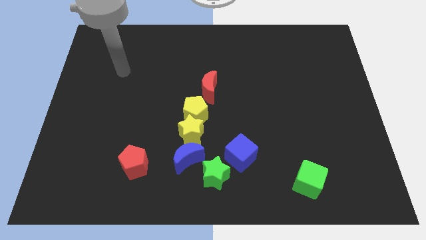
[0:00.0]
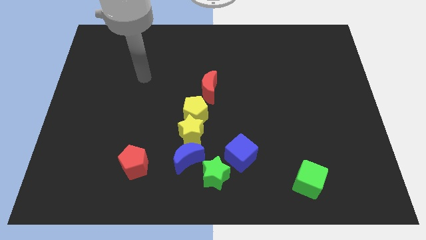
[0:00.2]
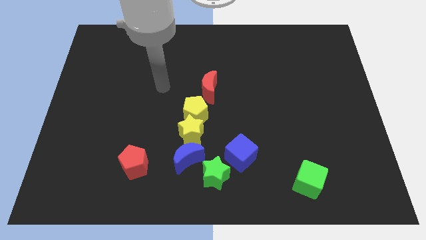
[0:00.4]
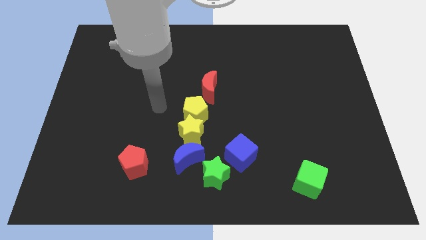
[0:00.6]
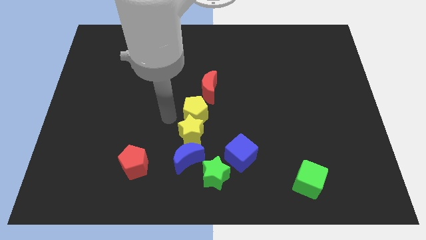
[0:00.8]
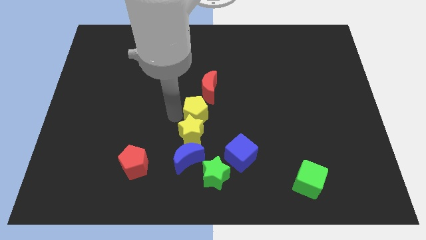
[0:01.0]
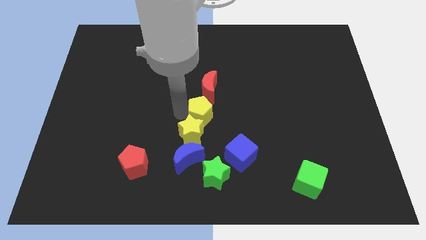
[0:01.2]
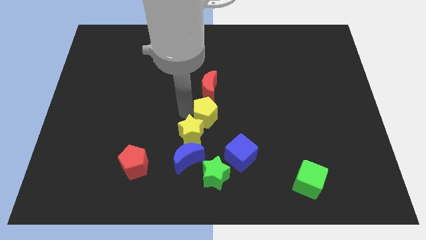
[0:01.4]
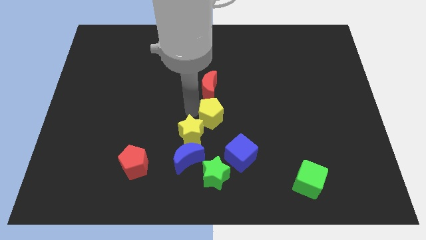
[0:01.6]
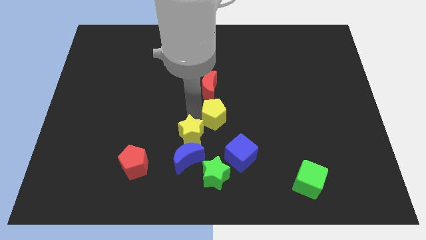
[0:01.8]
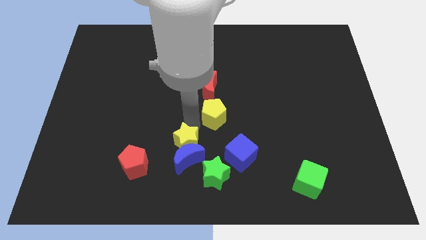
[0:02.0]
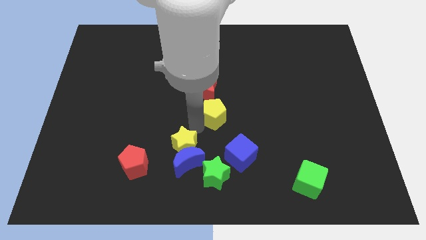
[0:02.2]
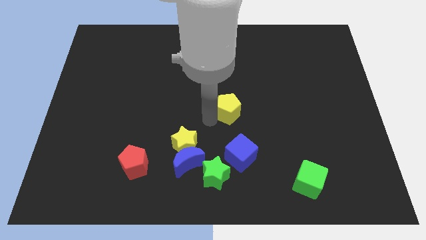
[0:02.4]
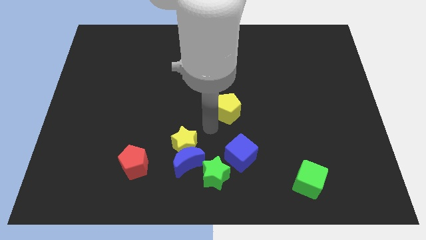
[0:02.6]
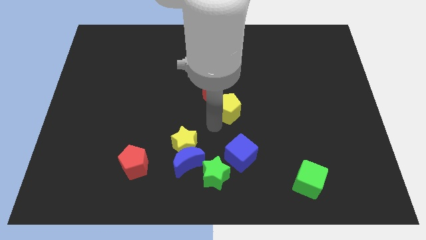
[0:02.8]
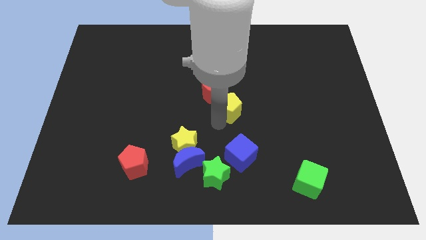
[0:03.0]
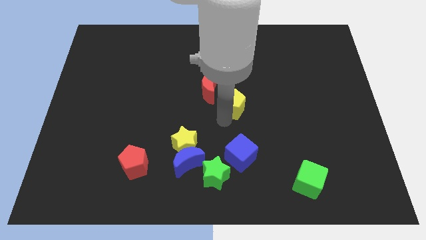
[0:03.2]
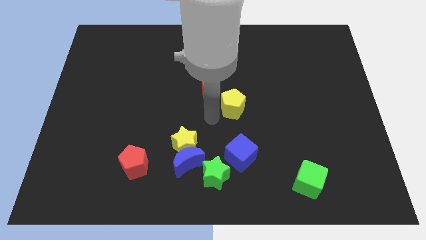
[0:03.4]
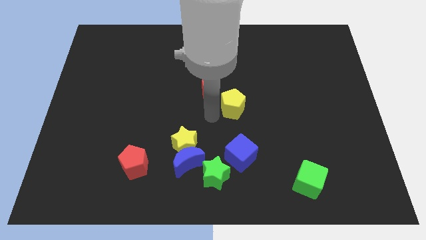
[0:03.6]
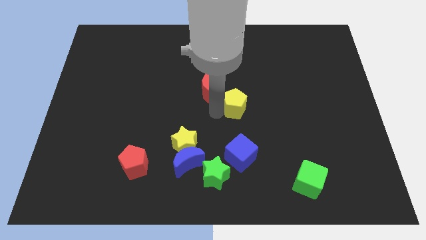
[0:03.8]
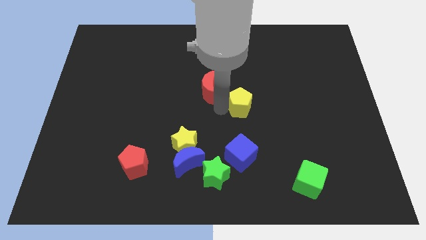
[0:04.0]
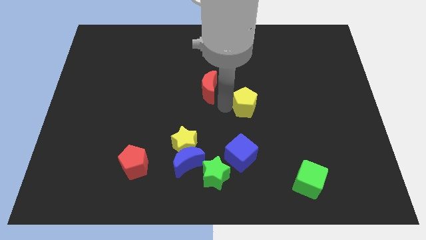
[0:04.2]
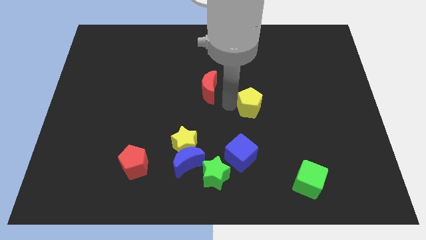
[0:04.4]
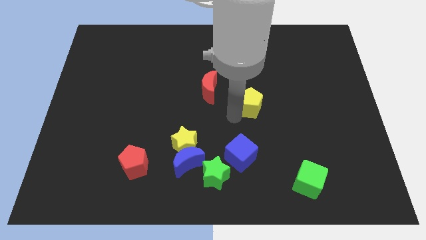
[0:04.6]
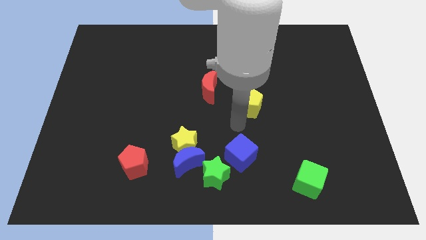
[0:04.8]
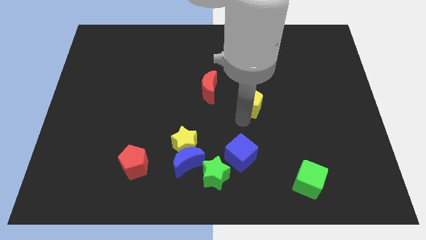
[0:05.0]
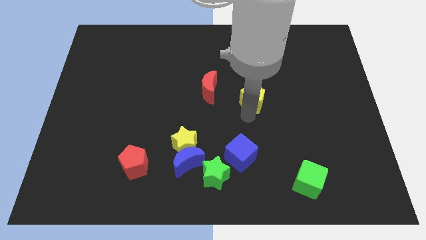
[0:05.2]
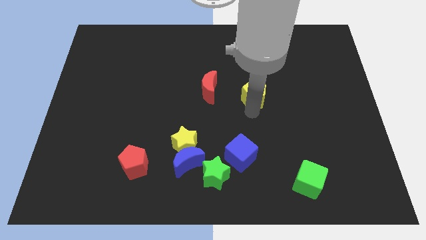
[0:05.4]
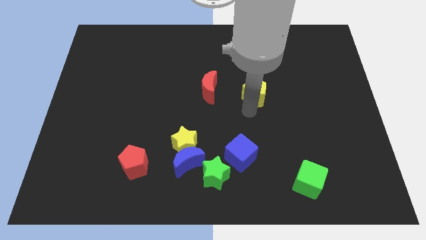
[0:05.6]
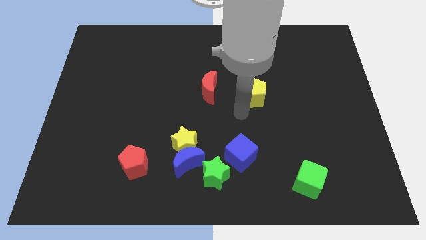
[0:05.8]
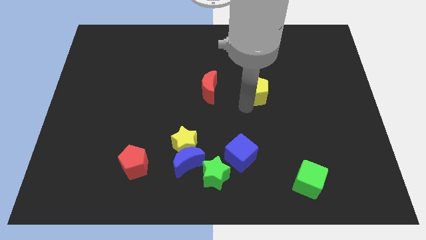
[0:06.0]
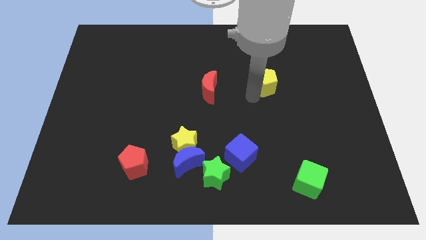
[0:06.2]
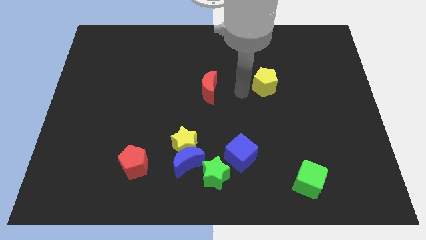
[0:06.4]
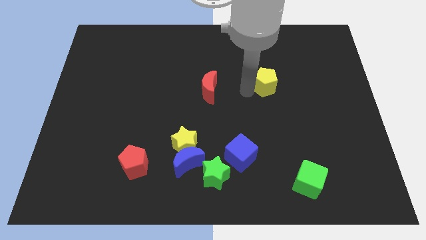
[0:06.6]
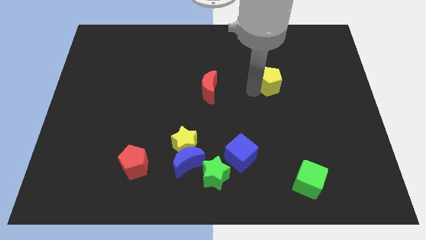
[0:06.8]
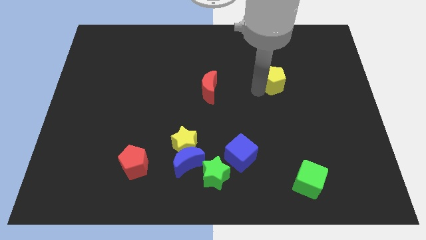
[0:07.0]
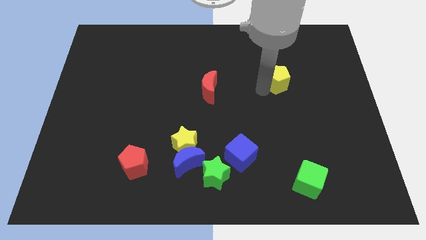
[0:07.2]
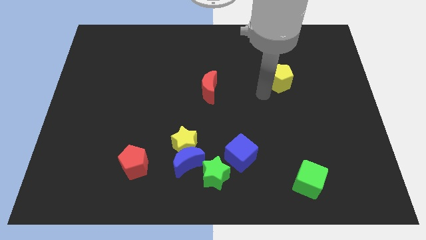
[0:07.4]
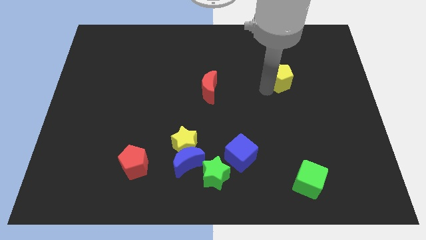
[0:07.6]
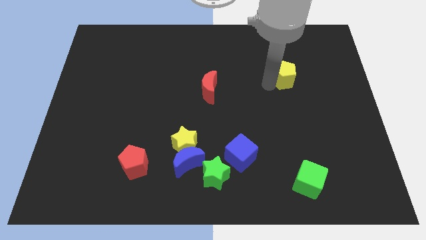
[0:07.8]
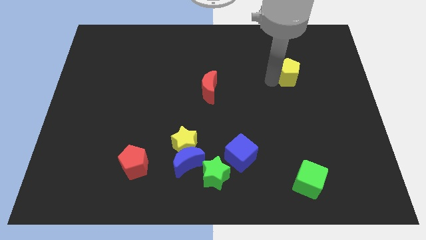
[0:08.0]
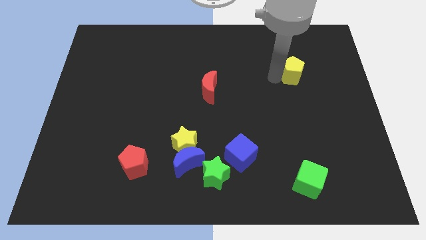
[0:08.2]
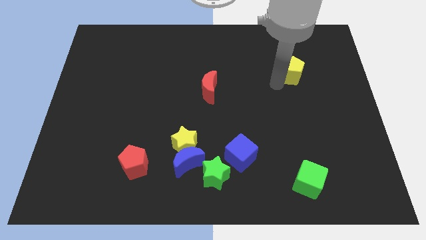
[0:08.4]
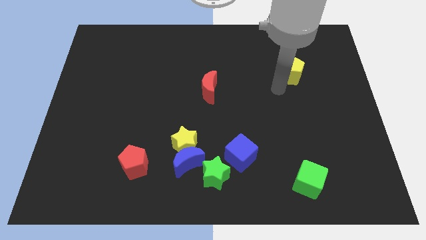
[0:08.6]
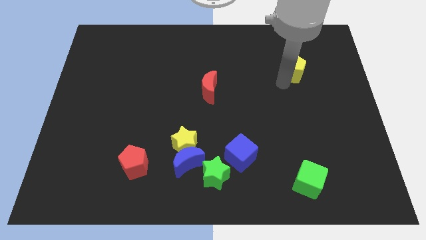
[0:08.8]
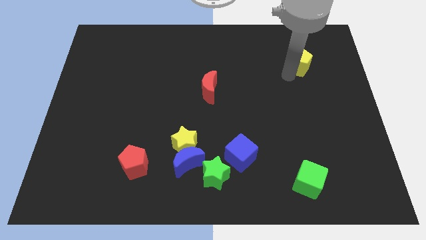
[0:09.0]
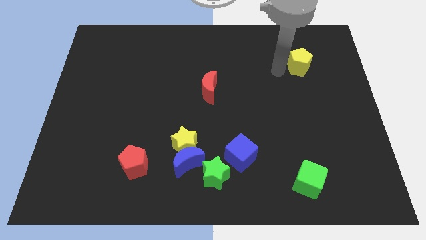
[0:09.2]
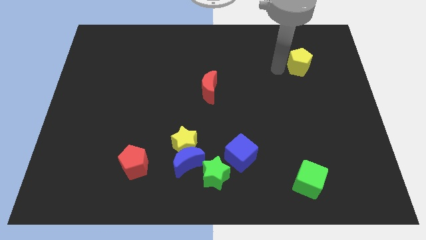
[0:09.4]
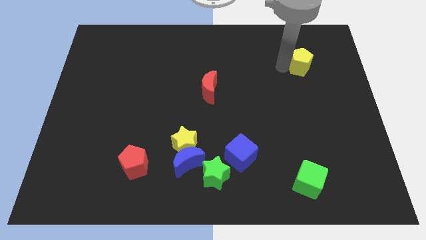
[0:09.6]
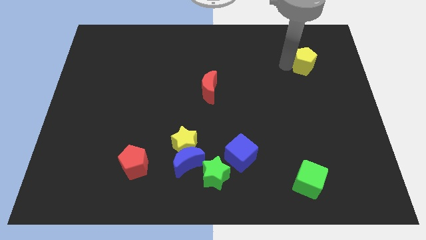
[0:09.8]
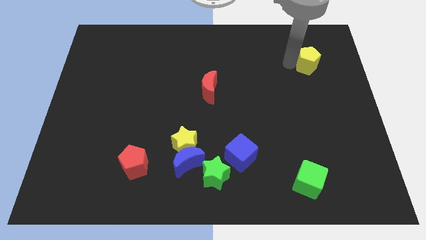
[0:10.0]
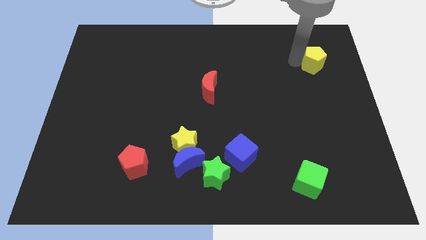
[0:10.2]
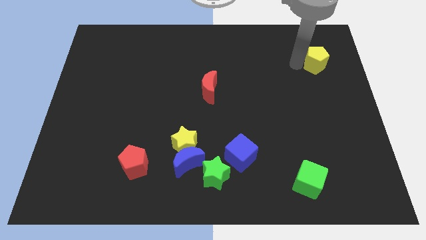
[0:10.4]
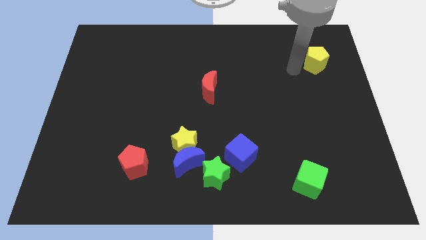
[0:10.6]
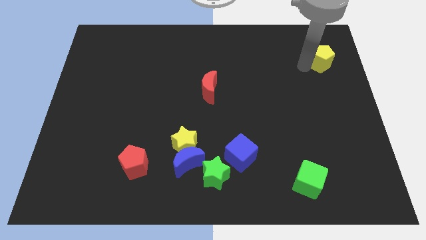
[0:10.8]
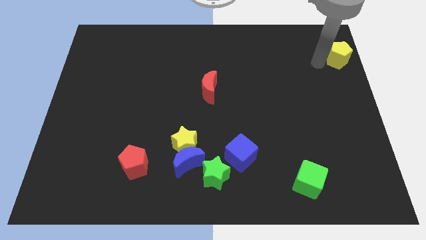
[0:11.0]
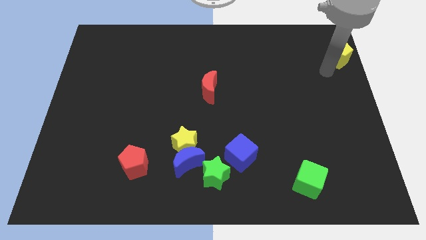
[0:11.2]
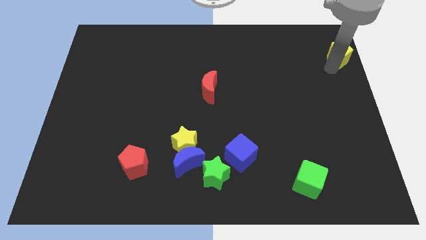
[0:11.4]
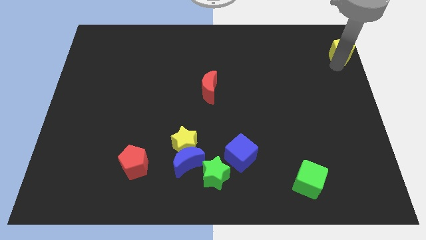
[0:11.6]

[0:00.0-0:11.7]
push the yellow pentagon to the top right corner
